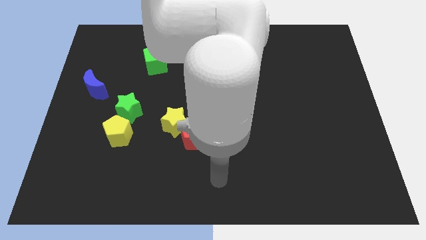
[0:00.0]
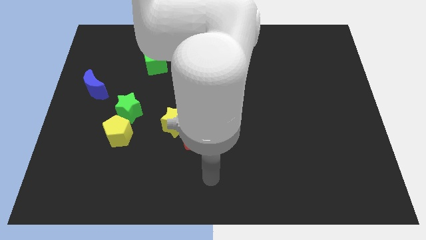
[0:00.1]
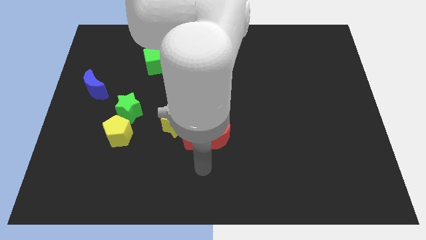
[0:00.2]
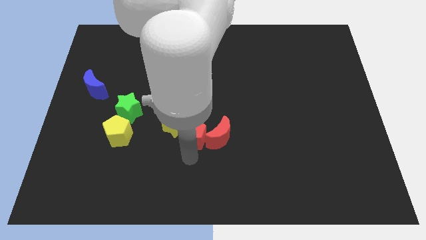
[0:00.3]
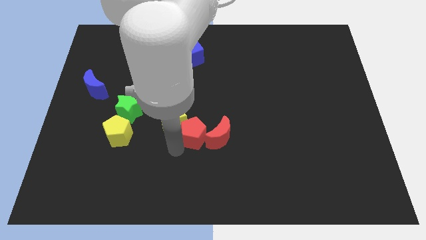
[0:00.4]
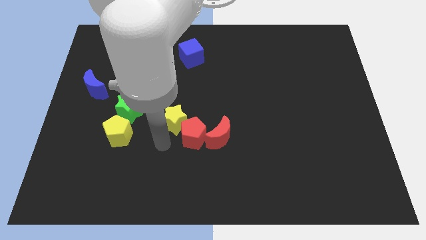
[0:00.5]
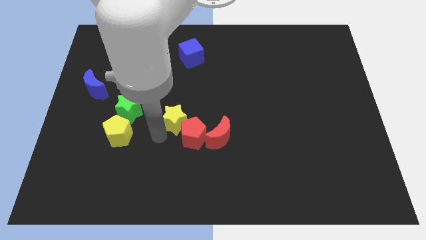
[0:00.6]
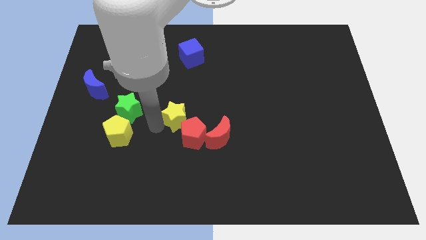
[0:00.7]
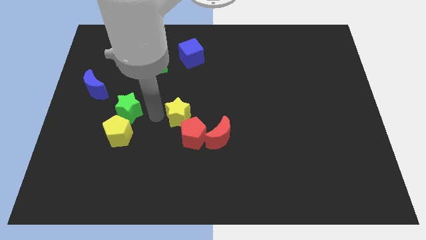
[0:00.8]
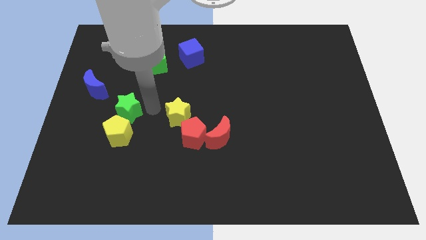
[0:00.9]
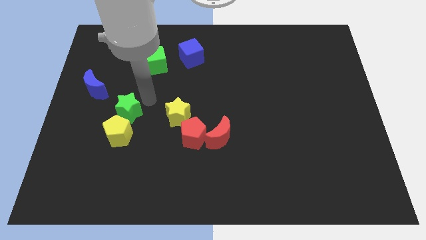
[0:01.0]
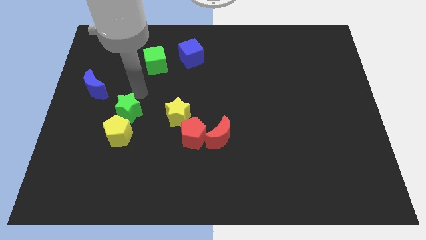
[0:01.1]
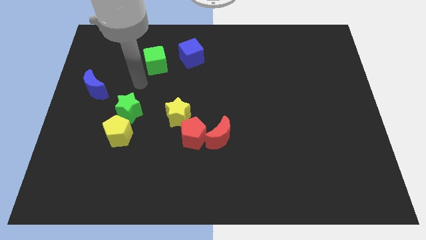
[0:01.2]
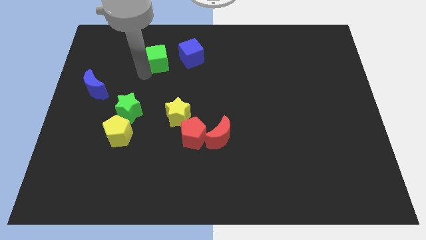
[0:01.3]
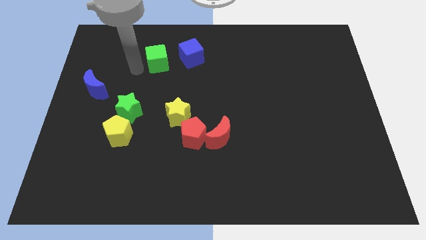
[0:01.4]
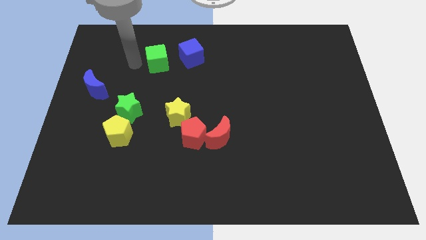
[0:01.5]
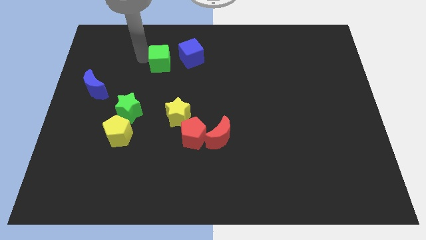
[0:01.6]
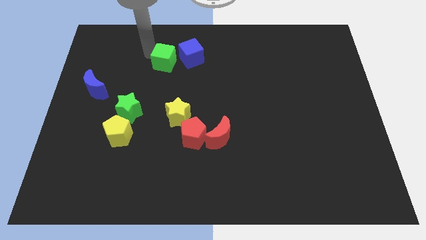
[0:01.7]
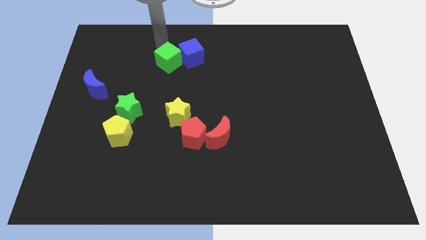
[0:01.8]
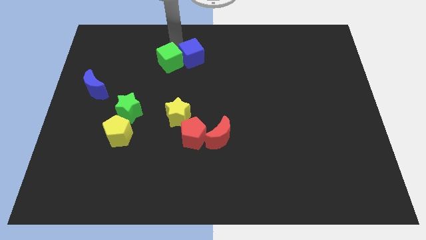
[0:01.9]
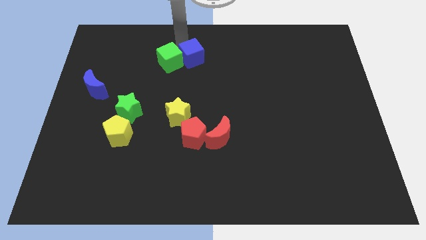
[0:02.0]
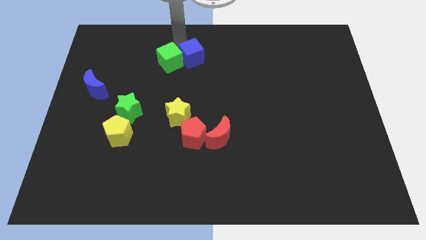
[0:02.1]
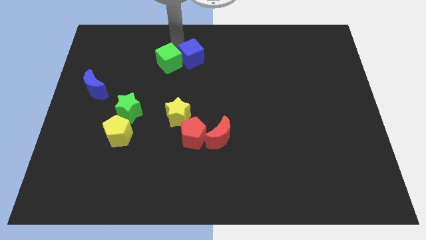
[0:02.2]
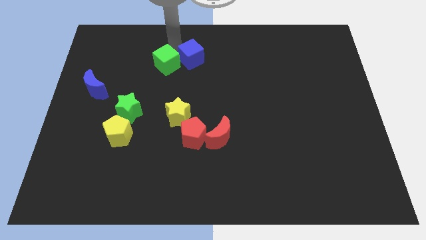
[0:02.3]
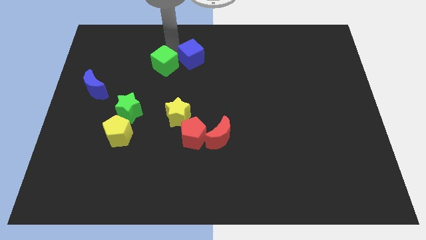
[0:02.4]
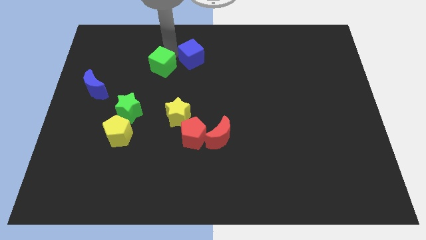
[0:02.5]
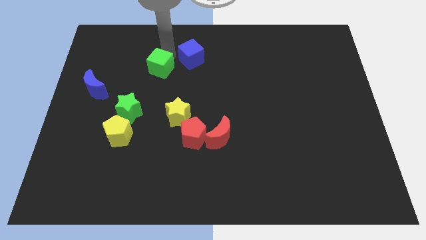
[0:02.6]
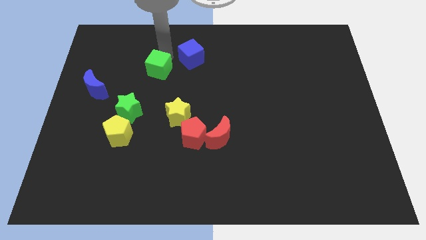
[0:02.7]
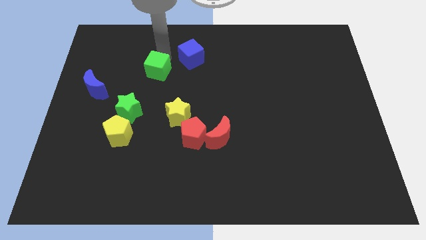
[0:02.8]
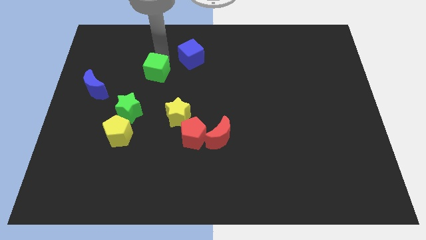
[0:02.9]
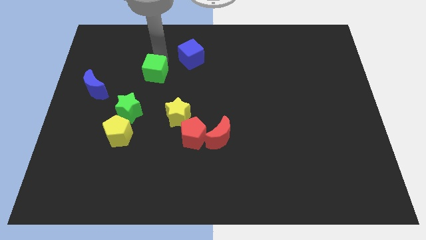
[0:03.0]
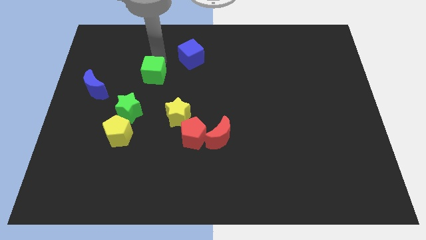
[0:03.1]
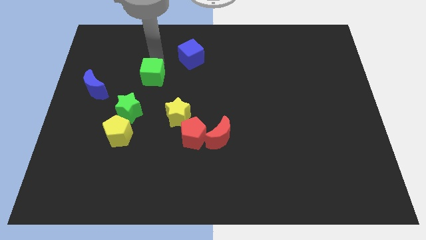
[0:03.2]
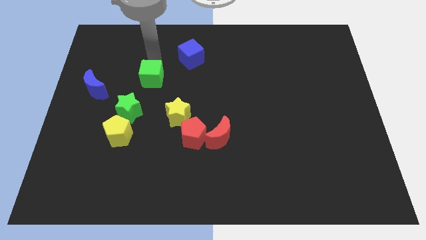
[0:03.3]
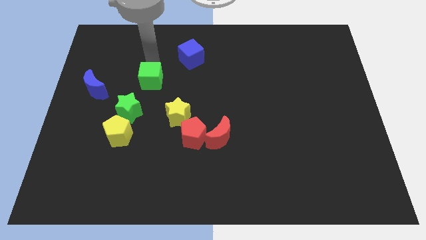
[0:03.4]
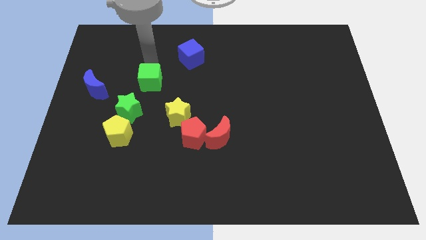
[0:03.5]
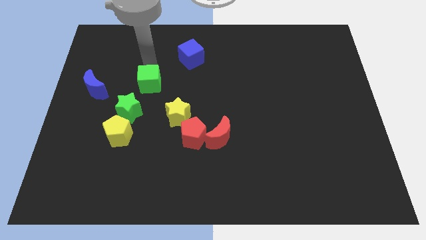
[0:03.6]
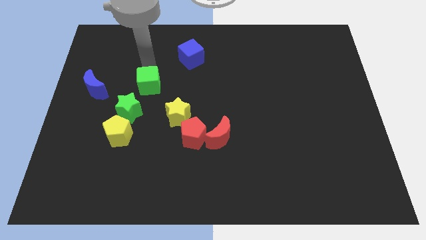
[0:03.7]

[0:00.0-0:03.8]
slightly slide the green cube down

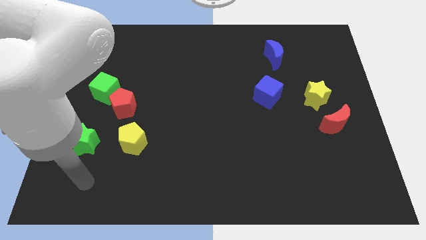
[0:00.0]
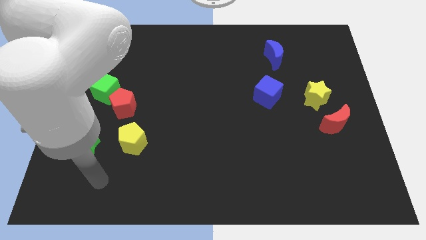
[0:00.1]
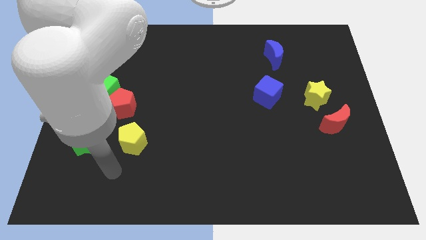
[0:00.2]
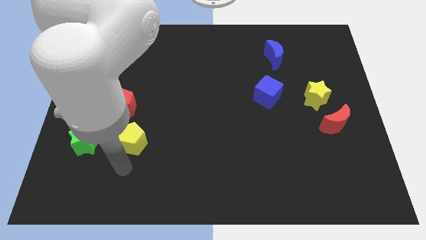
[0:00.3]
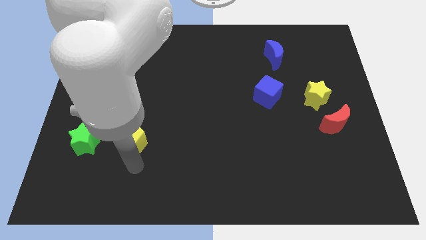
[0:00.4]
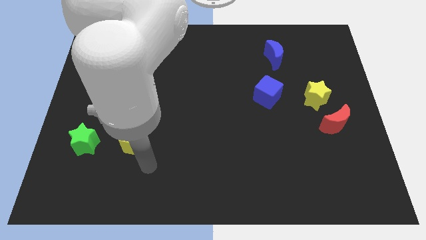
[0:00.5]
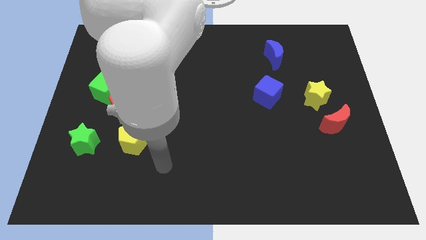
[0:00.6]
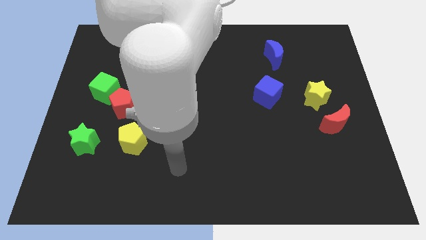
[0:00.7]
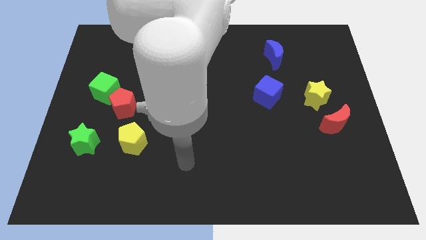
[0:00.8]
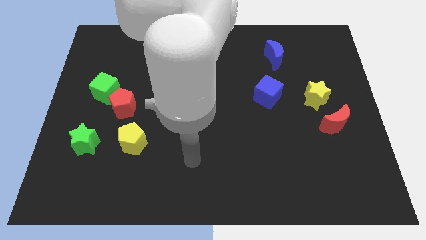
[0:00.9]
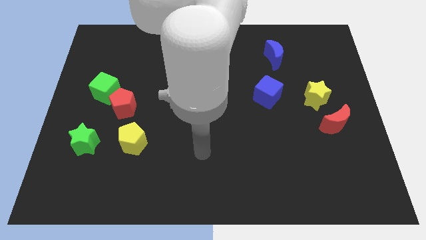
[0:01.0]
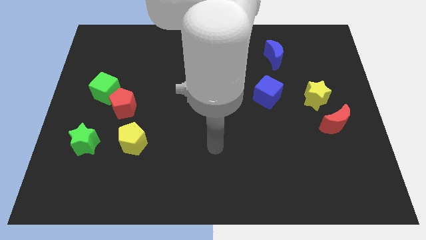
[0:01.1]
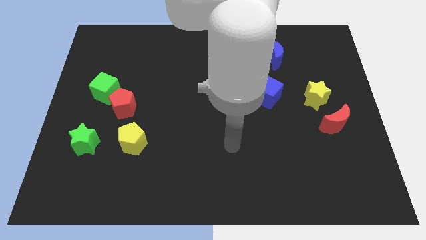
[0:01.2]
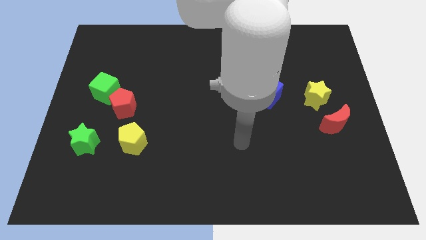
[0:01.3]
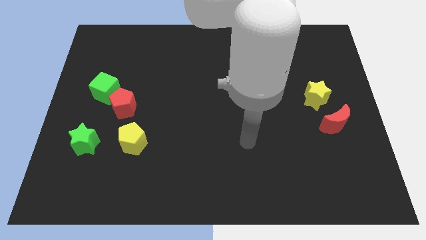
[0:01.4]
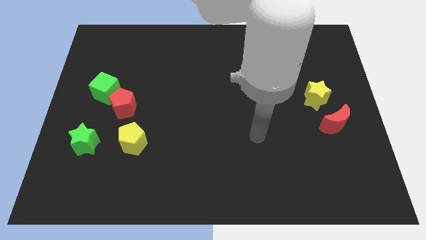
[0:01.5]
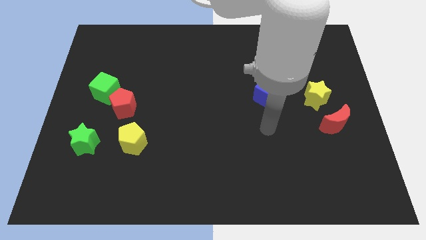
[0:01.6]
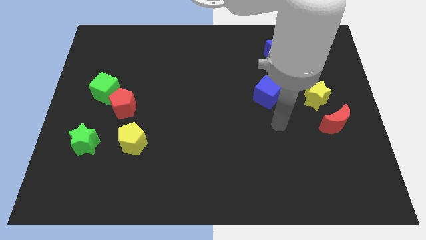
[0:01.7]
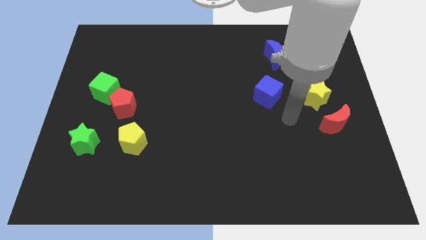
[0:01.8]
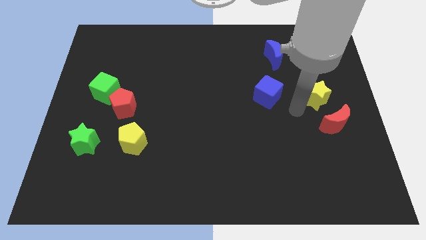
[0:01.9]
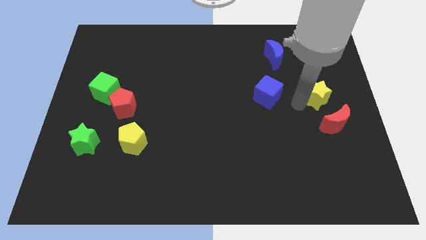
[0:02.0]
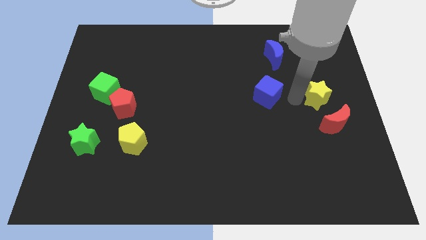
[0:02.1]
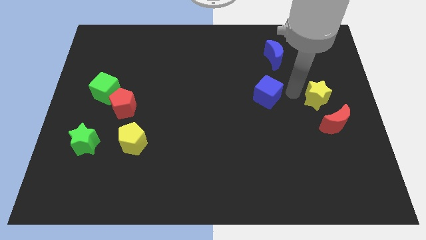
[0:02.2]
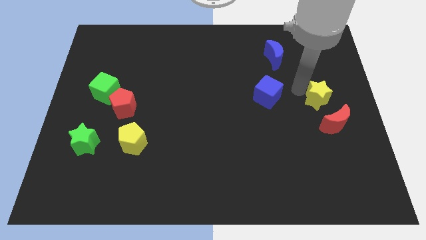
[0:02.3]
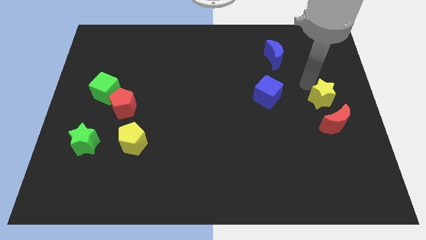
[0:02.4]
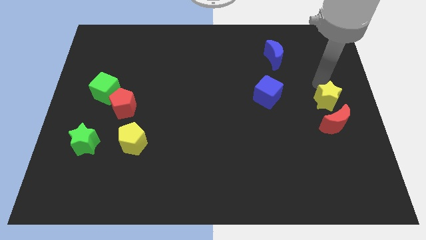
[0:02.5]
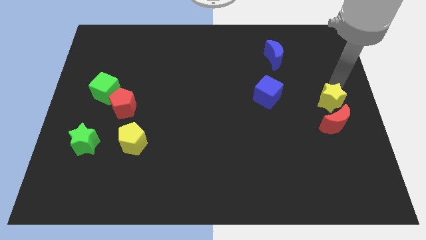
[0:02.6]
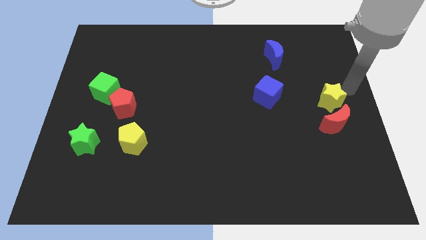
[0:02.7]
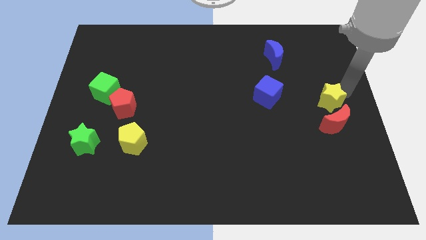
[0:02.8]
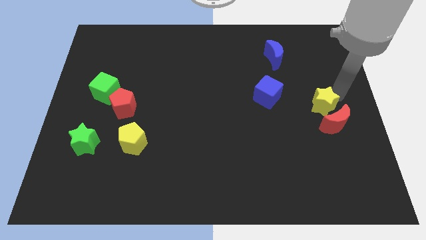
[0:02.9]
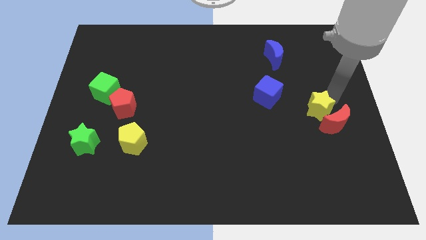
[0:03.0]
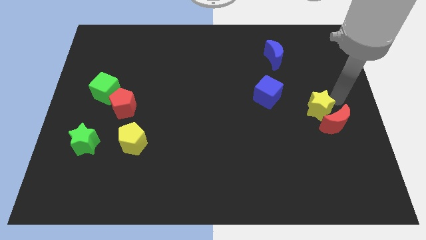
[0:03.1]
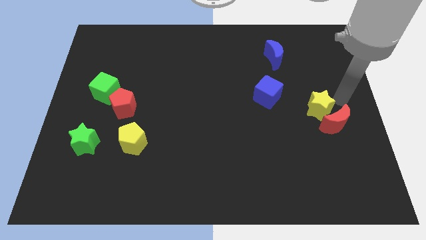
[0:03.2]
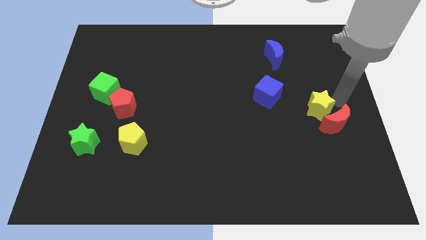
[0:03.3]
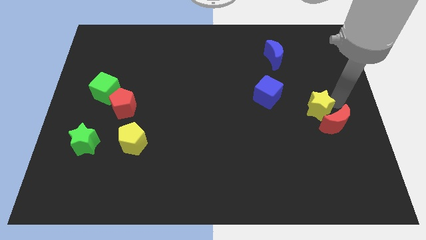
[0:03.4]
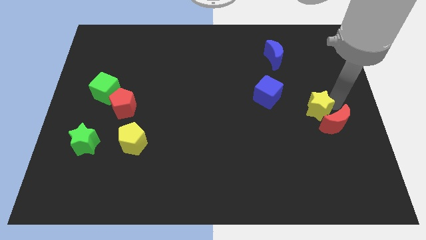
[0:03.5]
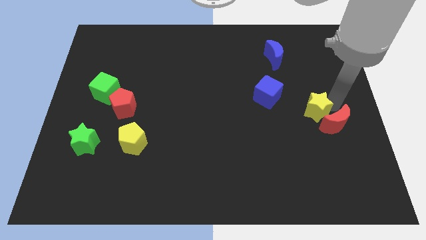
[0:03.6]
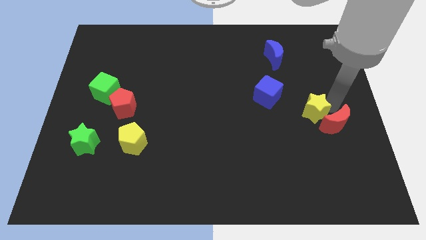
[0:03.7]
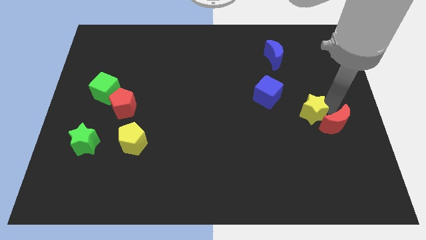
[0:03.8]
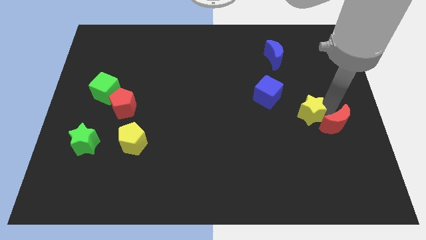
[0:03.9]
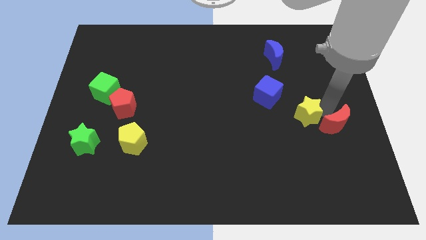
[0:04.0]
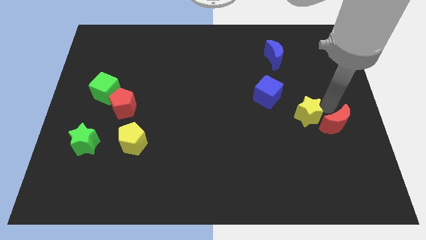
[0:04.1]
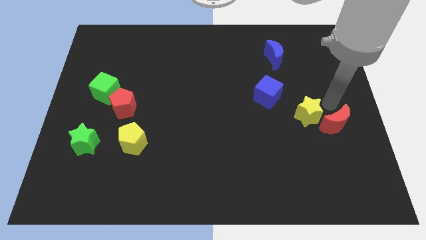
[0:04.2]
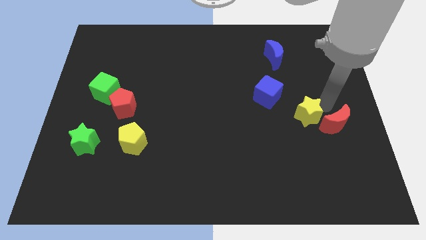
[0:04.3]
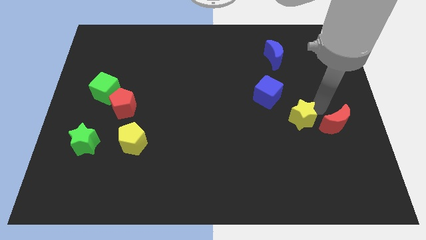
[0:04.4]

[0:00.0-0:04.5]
push the yellow star downwards and then left a bit
